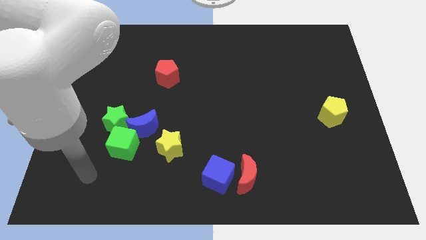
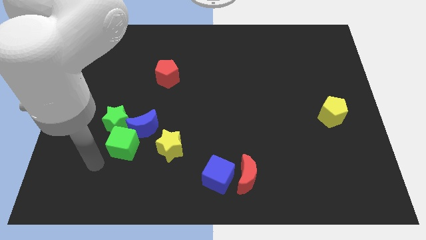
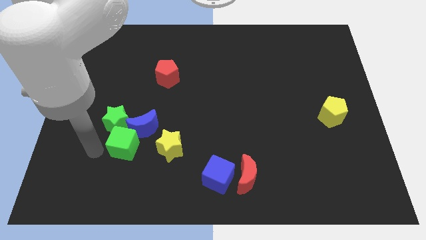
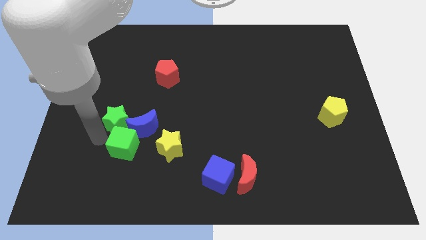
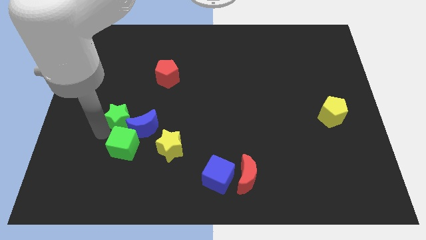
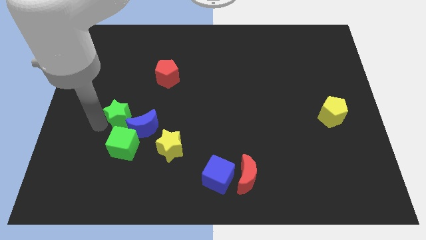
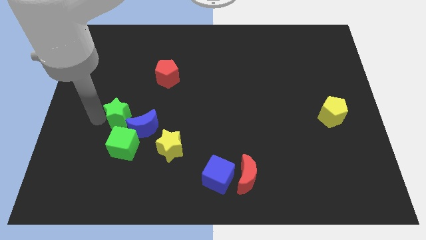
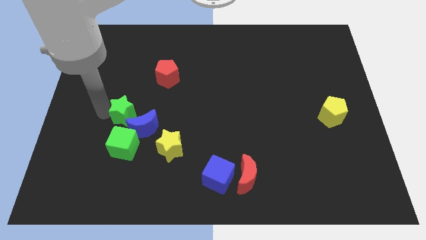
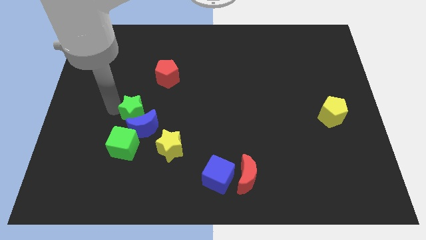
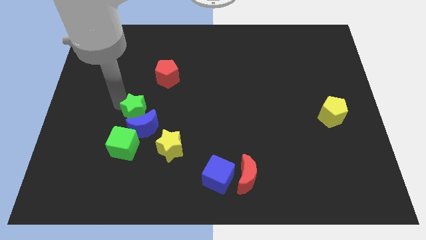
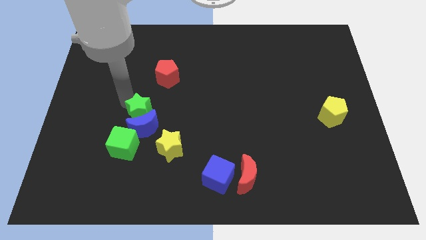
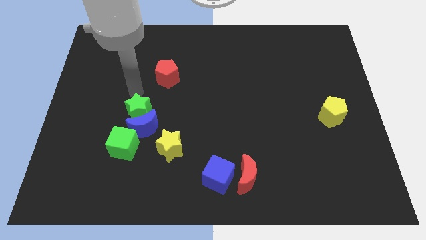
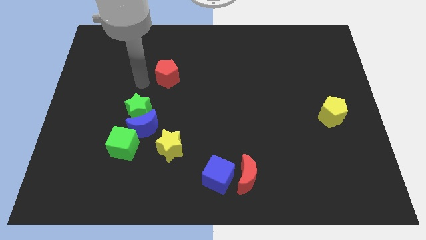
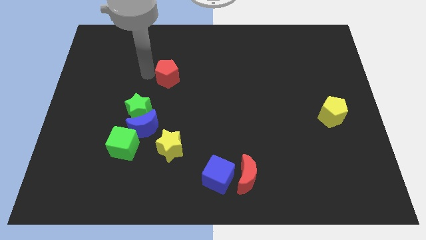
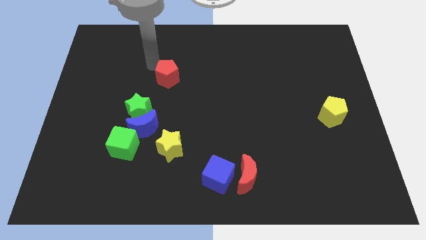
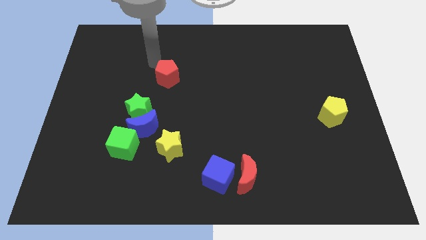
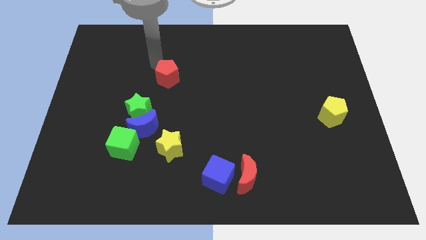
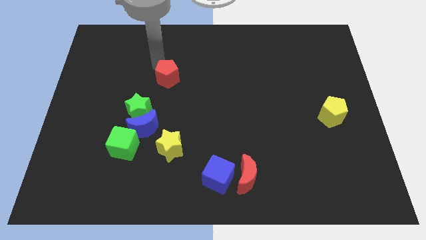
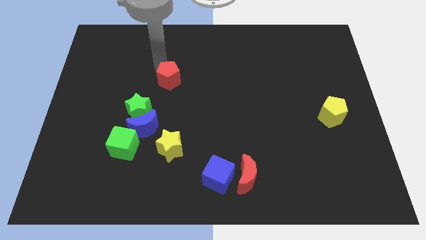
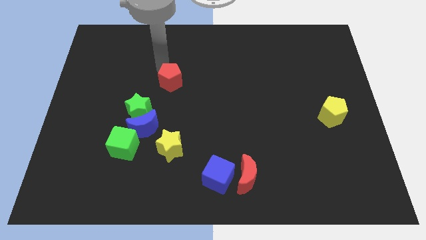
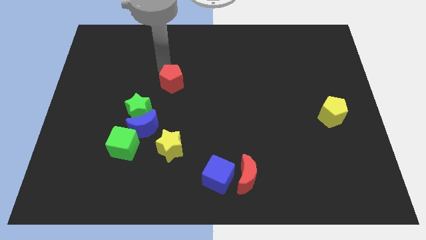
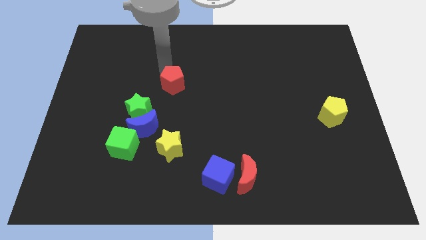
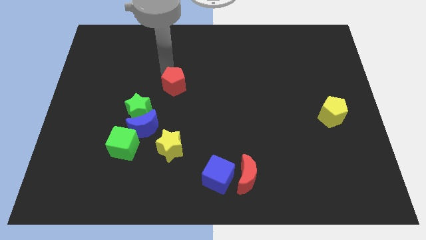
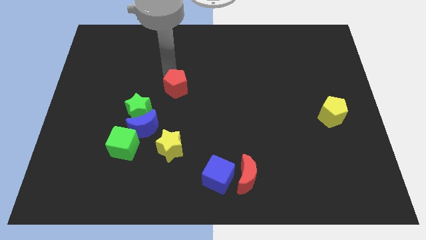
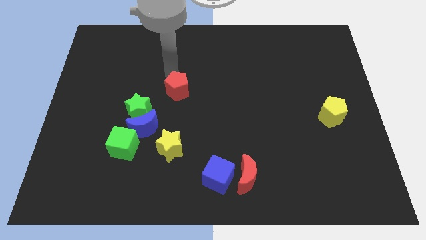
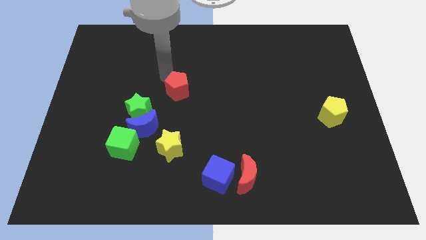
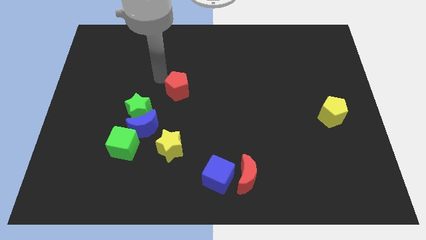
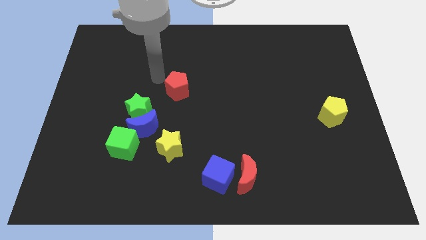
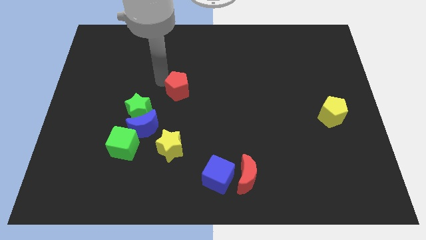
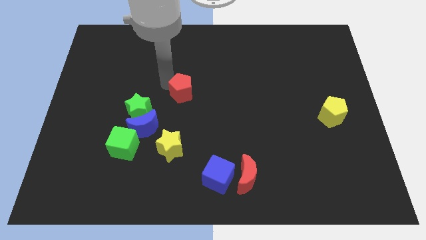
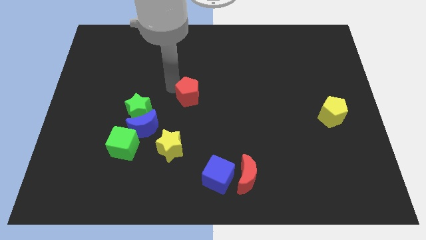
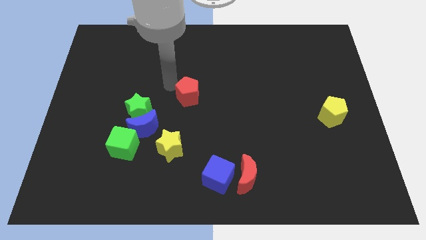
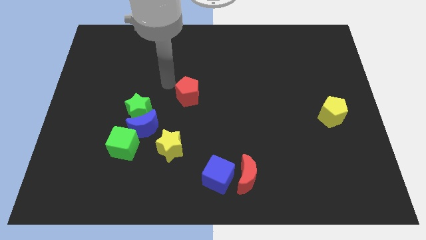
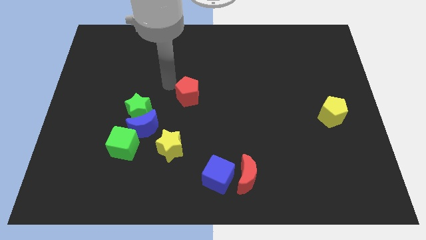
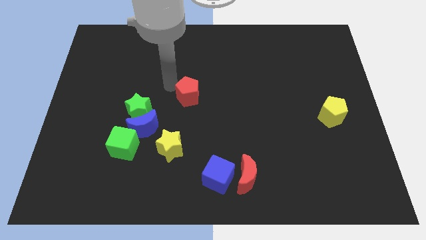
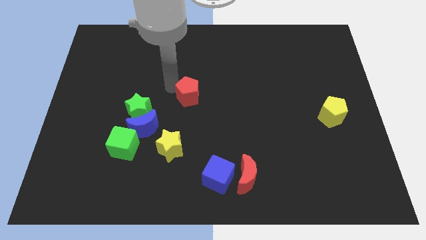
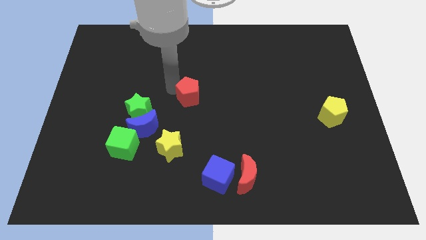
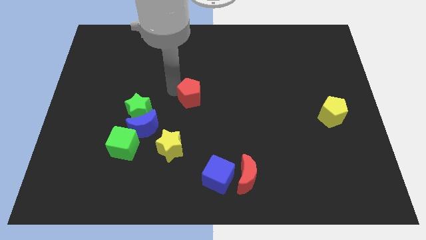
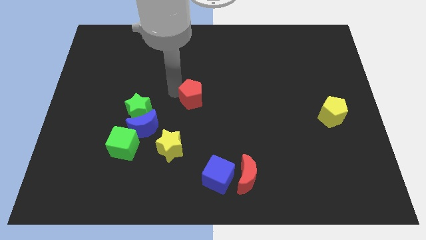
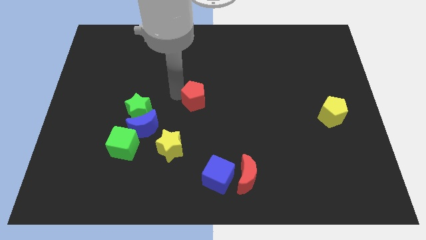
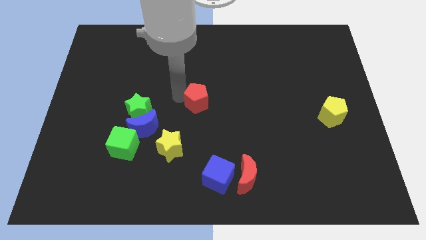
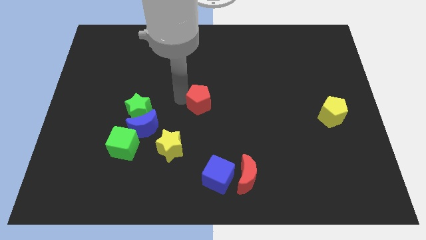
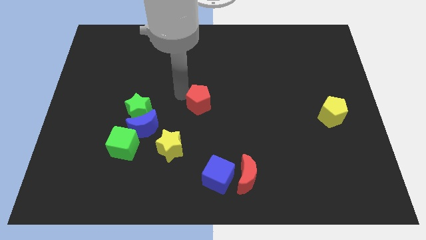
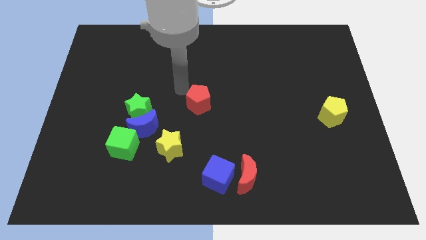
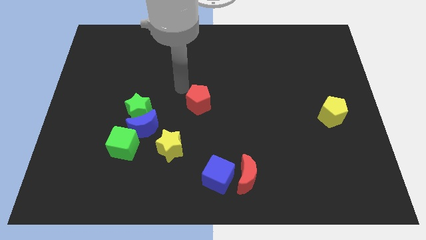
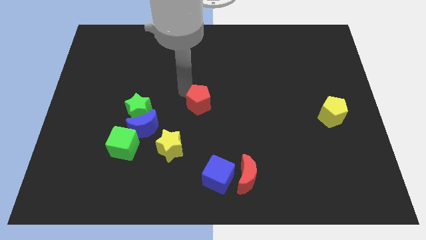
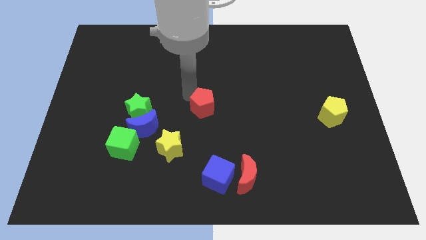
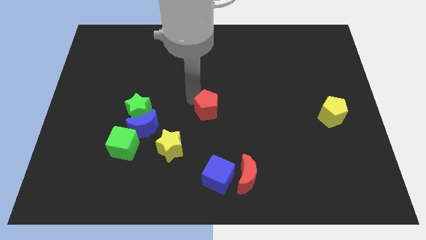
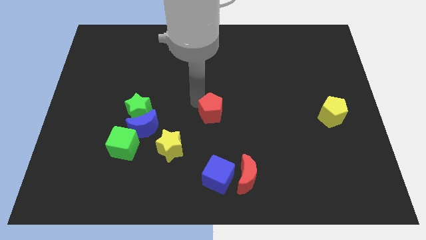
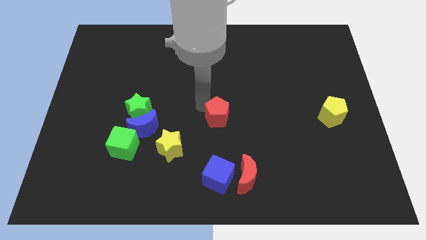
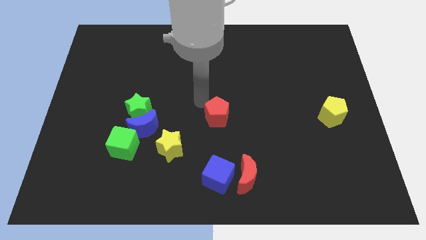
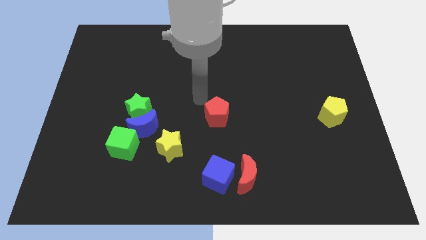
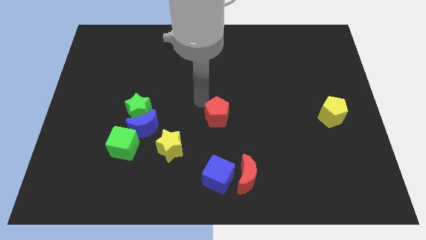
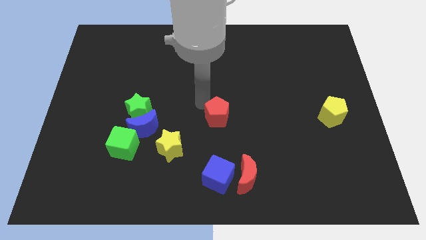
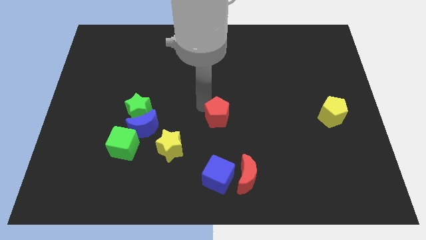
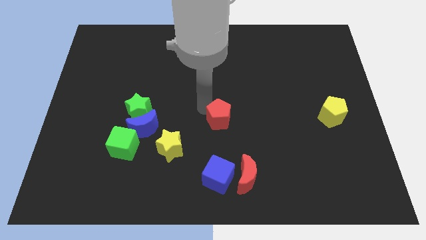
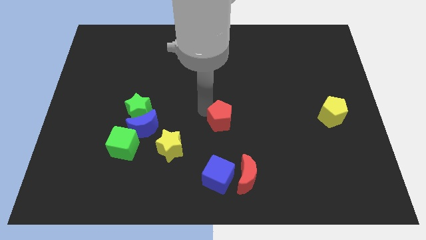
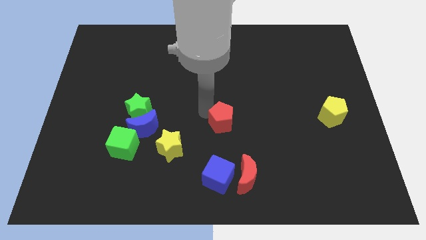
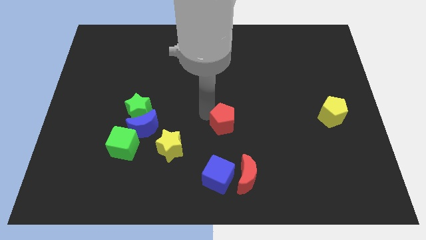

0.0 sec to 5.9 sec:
push the red pentagon diagonally down and right

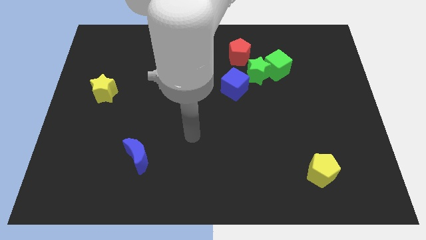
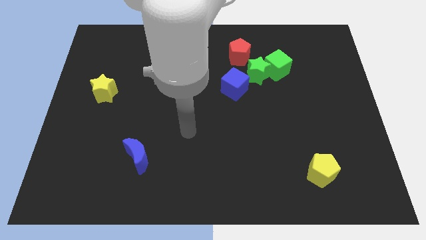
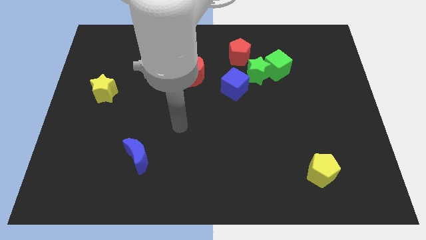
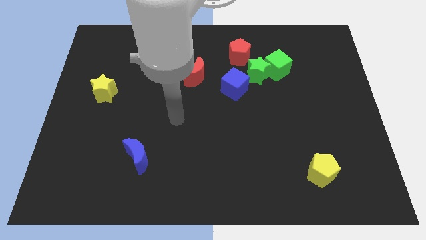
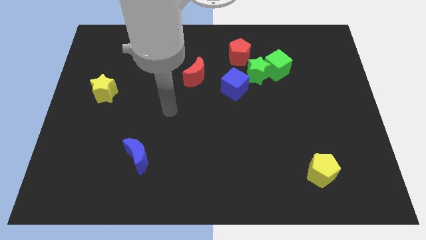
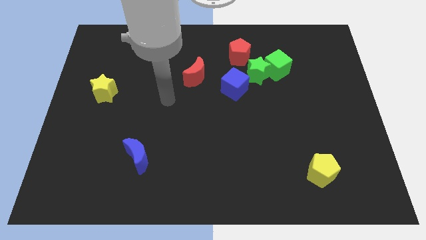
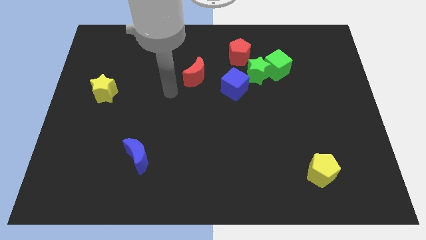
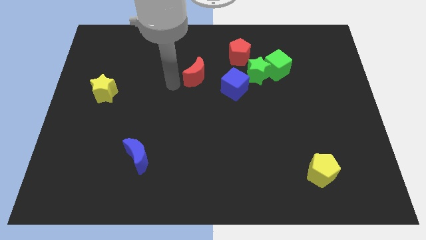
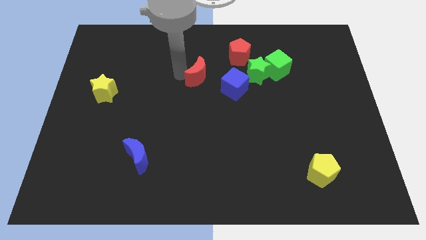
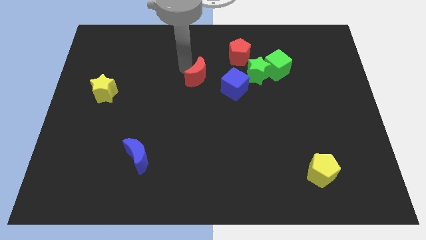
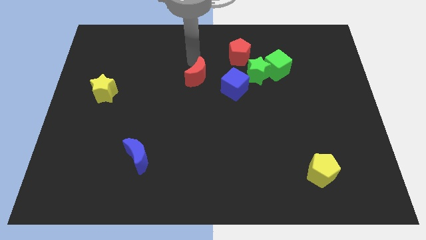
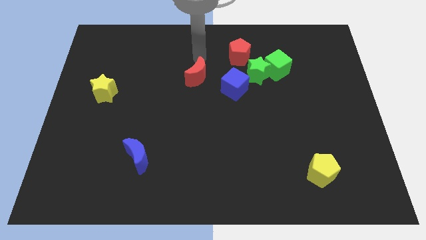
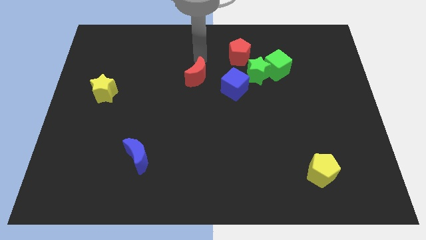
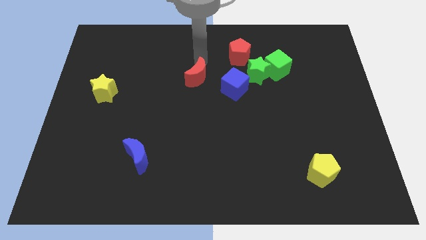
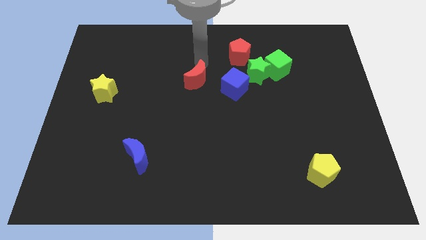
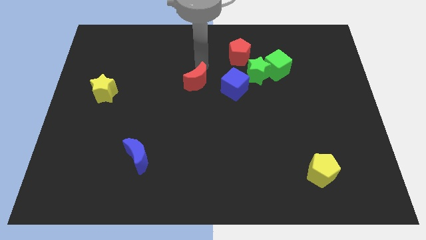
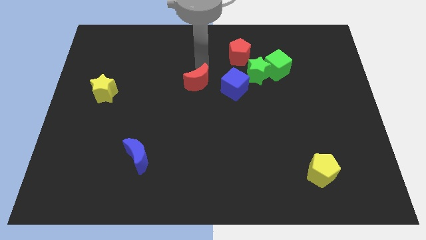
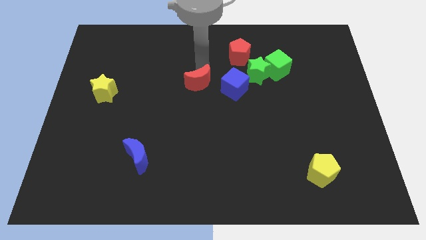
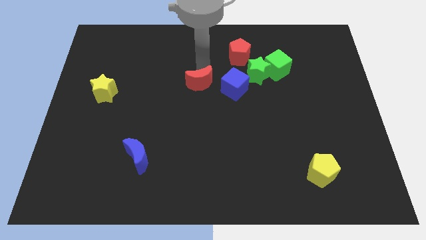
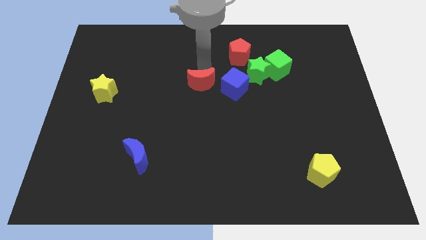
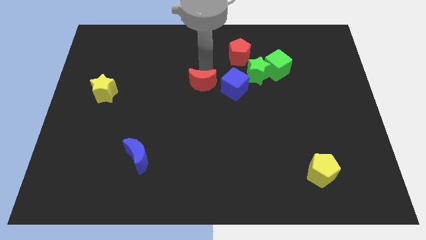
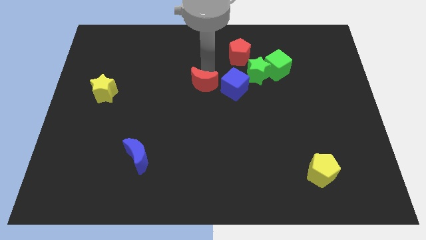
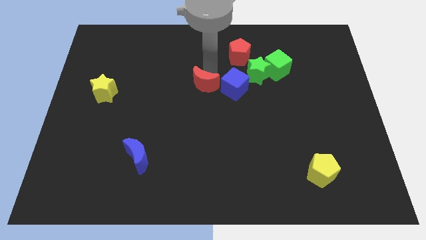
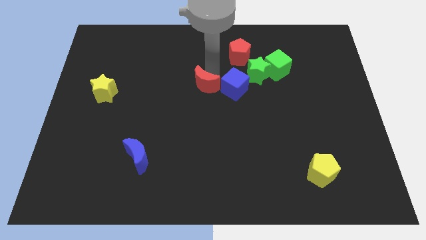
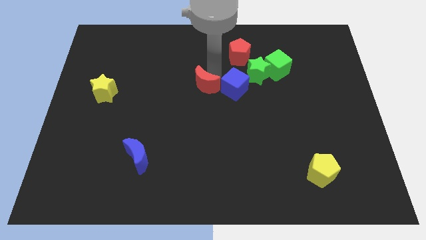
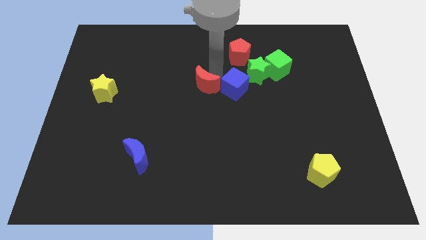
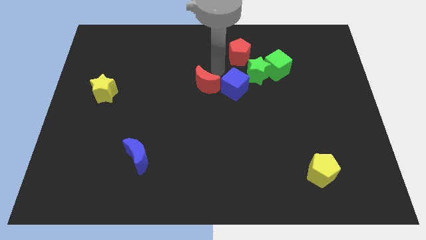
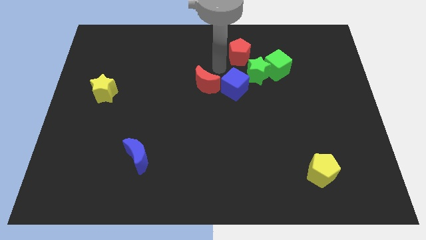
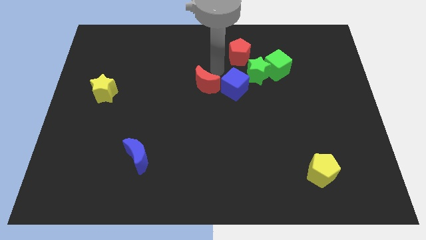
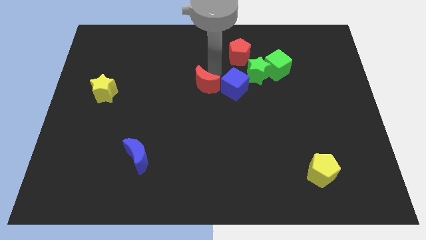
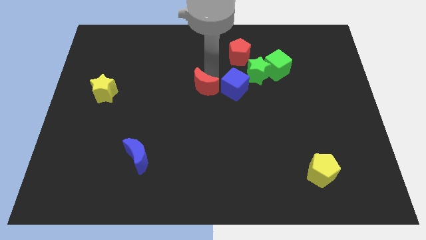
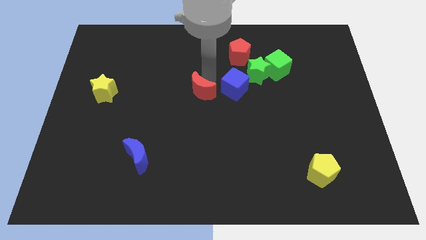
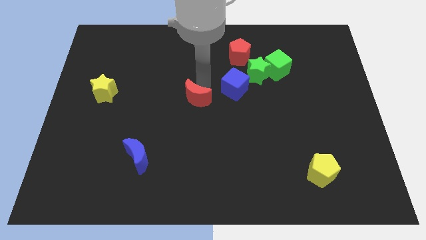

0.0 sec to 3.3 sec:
slightly move the red moon downwards
